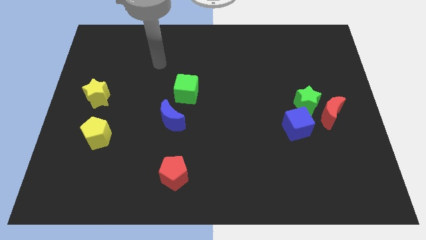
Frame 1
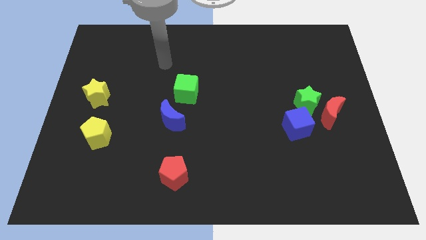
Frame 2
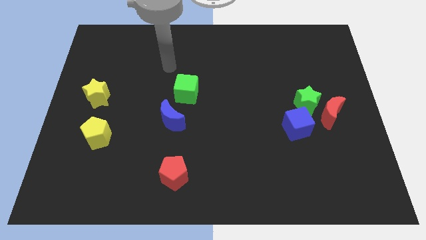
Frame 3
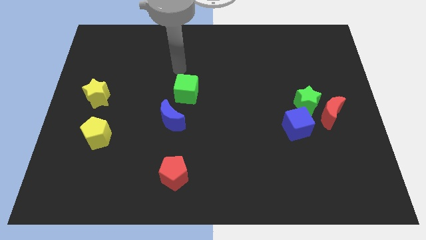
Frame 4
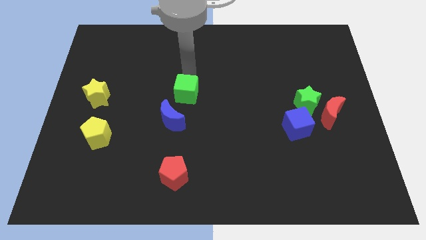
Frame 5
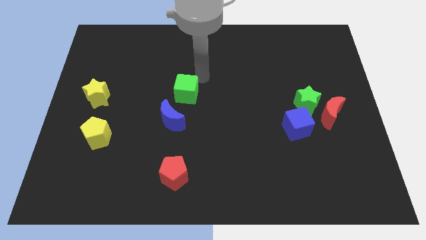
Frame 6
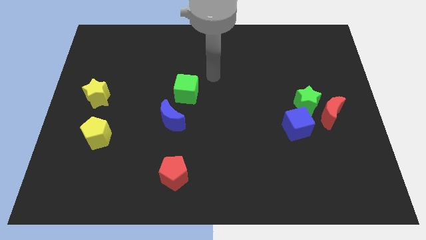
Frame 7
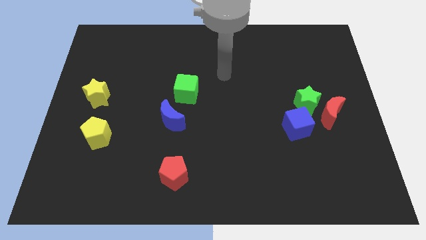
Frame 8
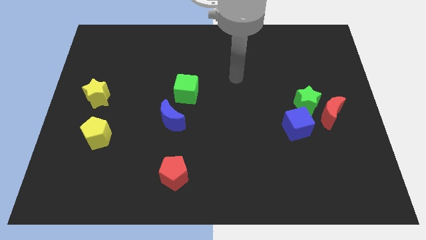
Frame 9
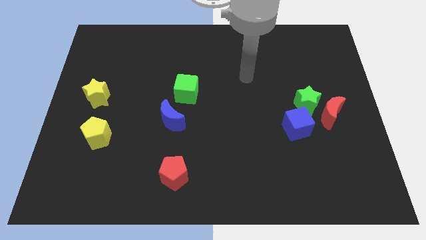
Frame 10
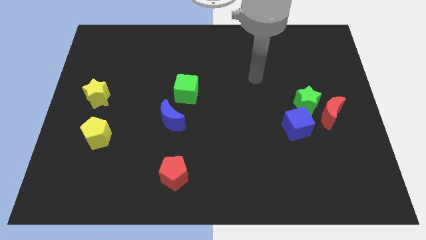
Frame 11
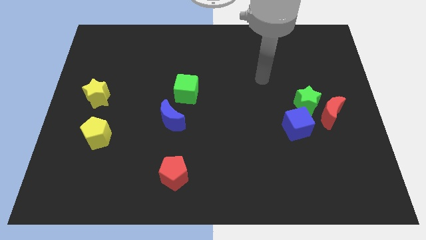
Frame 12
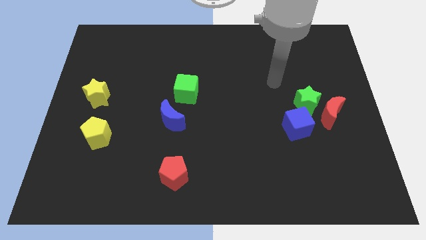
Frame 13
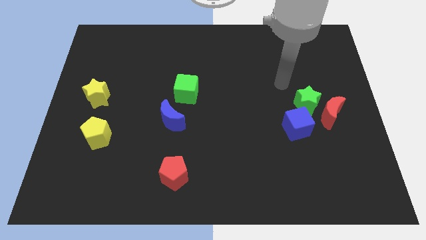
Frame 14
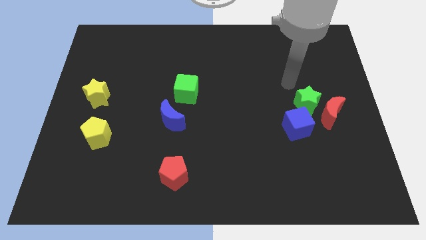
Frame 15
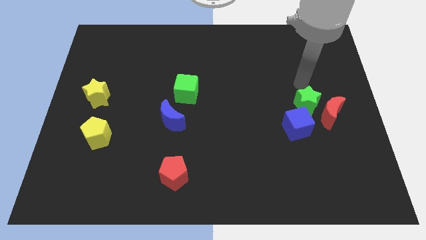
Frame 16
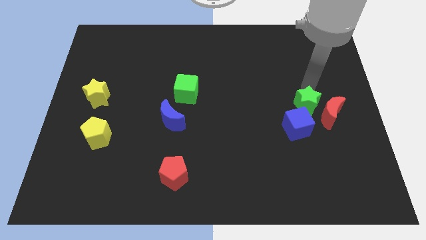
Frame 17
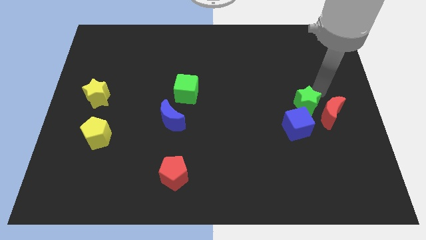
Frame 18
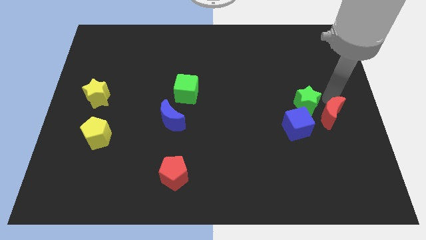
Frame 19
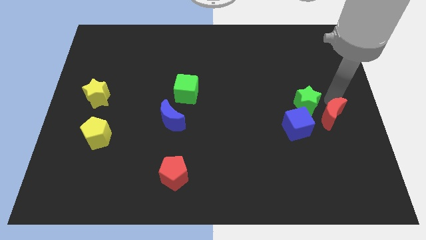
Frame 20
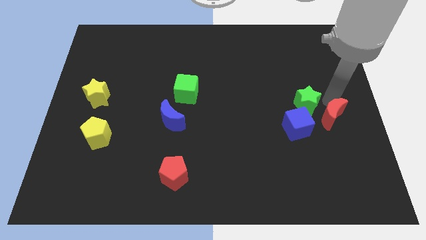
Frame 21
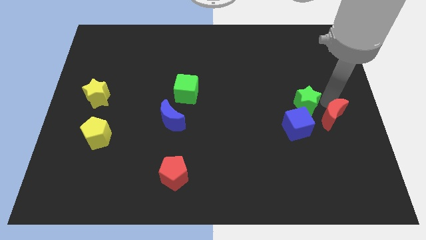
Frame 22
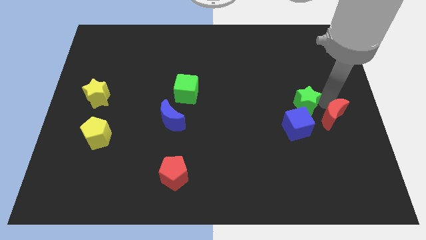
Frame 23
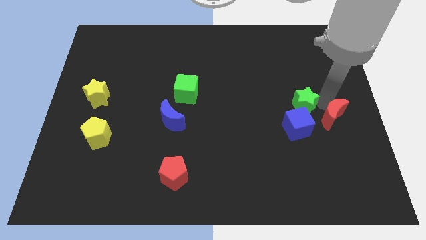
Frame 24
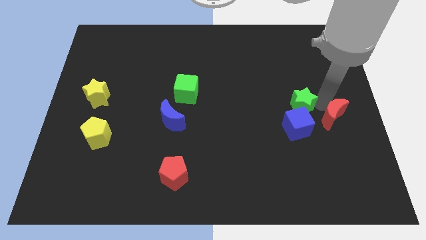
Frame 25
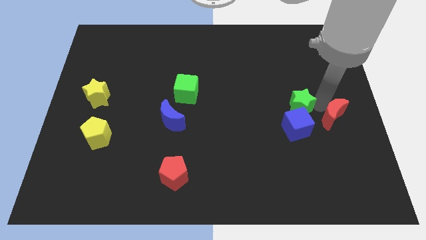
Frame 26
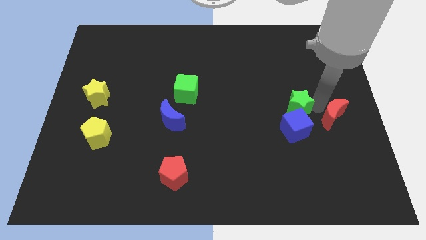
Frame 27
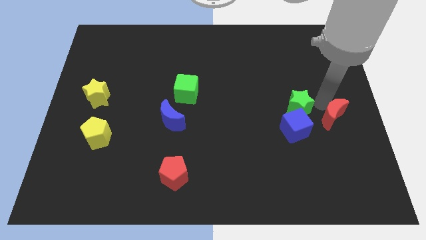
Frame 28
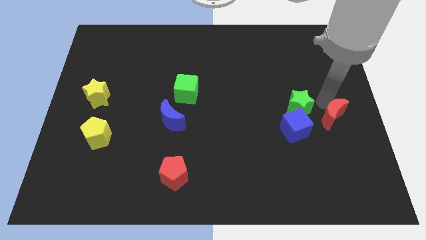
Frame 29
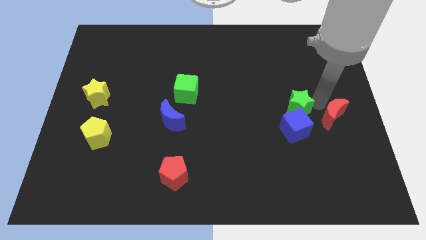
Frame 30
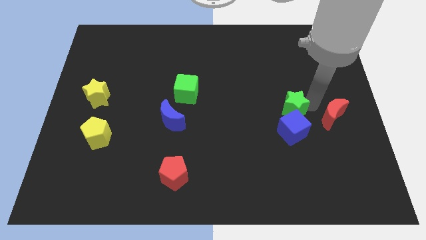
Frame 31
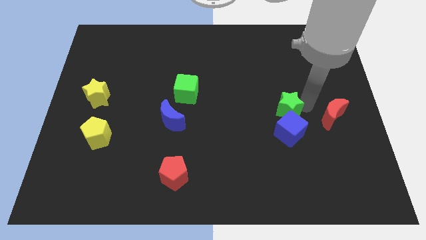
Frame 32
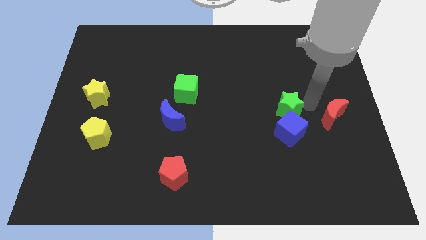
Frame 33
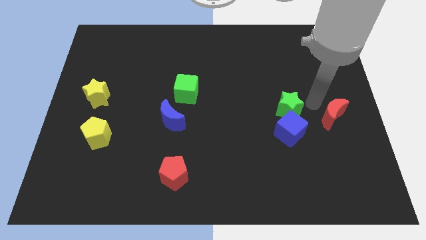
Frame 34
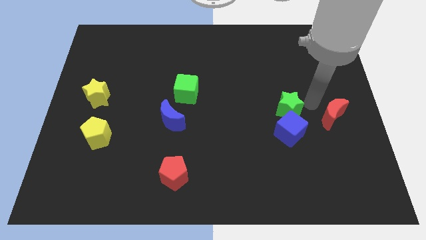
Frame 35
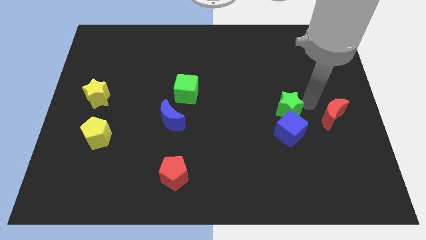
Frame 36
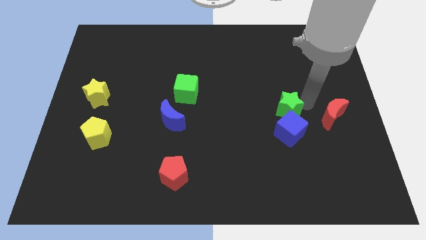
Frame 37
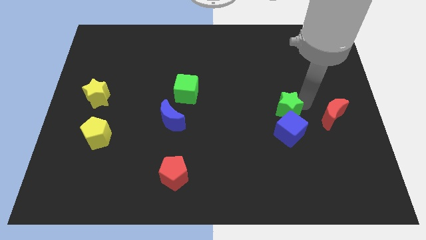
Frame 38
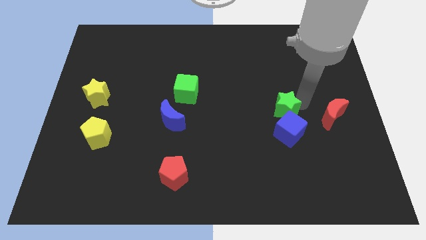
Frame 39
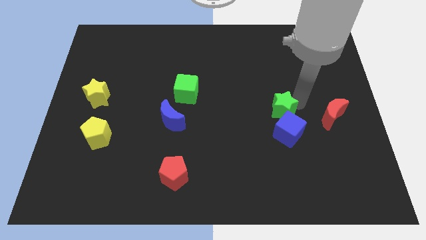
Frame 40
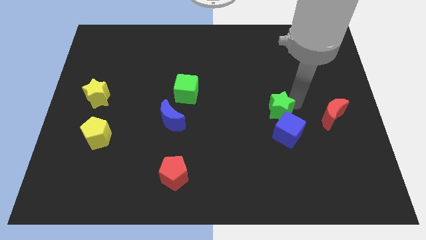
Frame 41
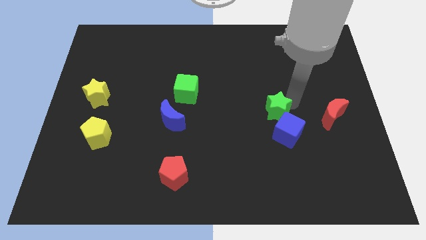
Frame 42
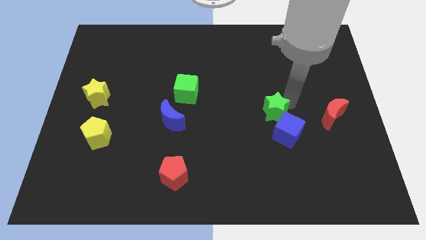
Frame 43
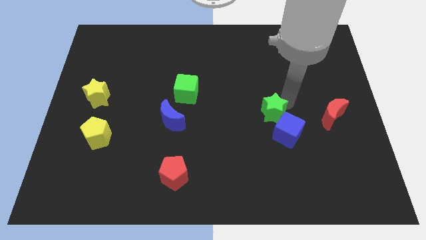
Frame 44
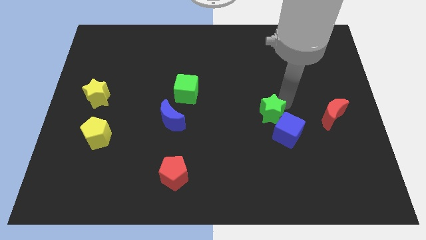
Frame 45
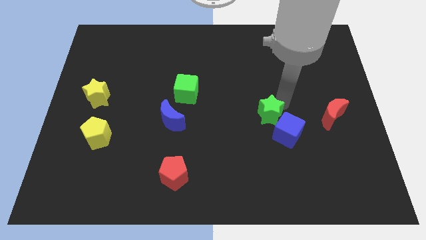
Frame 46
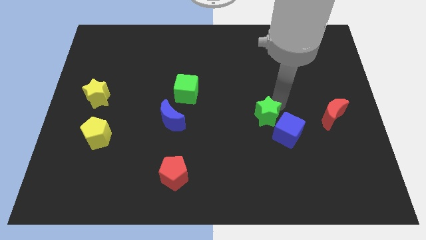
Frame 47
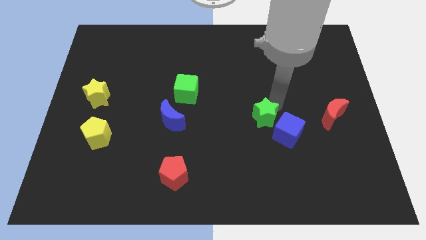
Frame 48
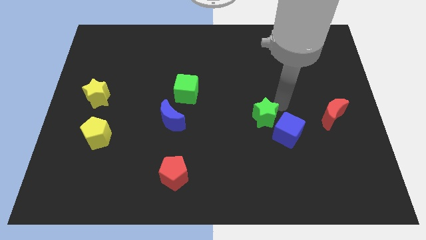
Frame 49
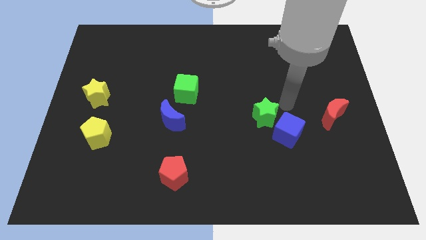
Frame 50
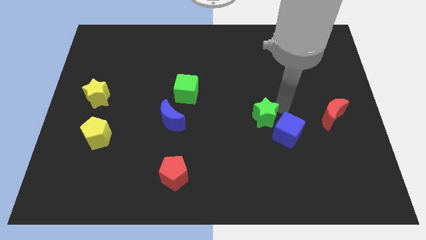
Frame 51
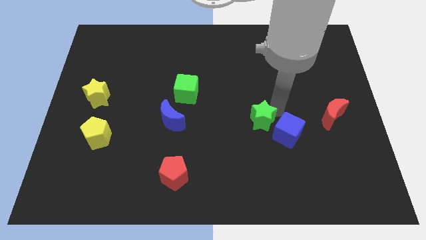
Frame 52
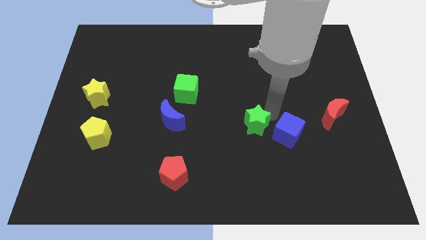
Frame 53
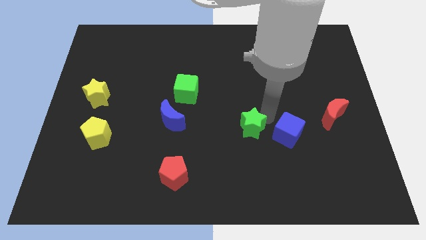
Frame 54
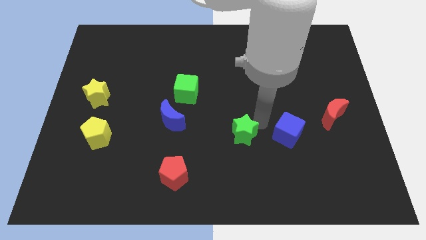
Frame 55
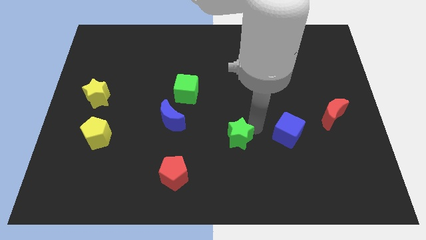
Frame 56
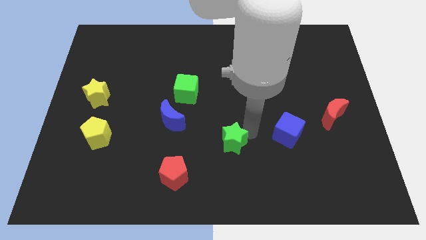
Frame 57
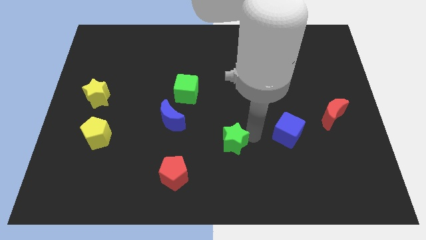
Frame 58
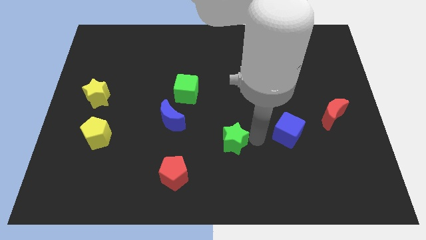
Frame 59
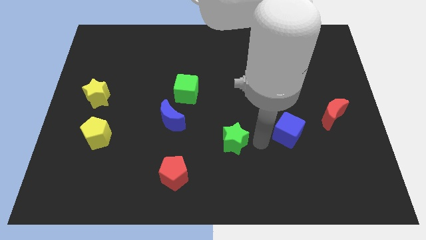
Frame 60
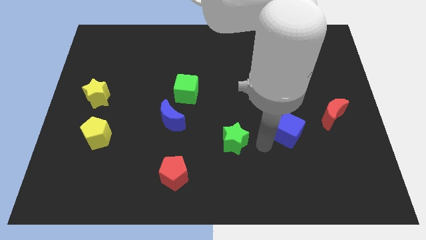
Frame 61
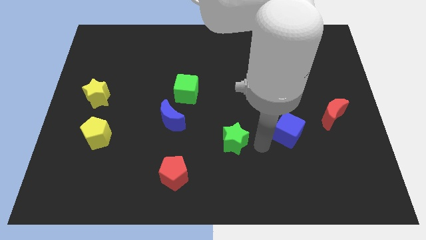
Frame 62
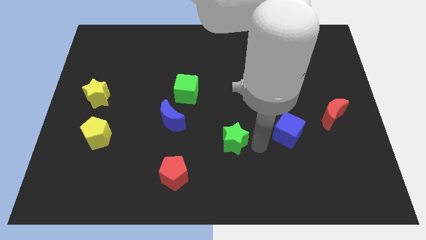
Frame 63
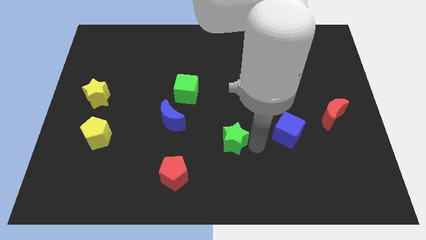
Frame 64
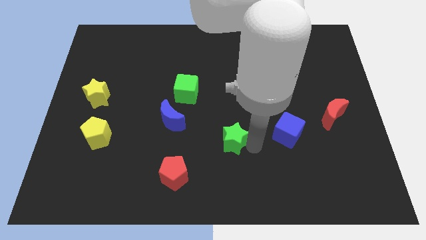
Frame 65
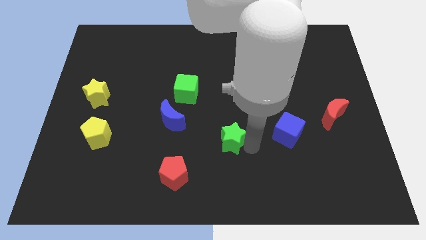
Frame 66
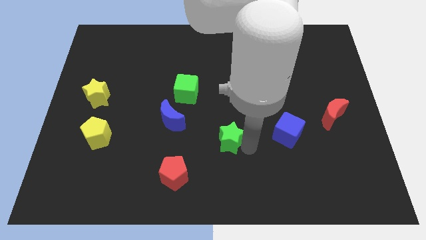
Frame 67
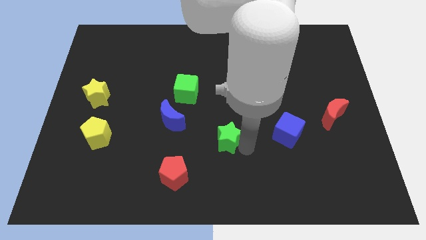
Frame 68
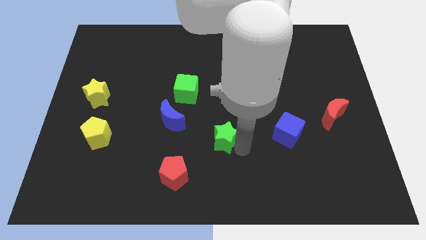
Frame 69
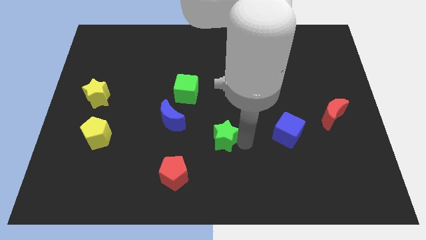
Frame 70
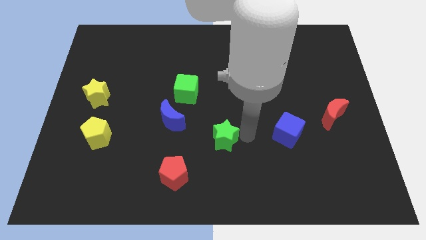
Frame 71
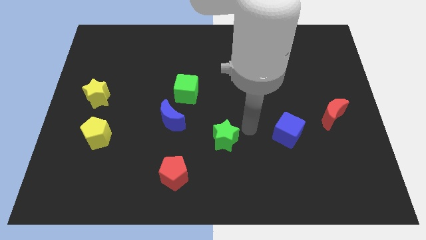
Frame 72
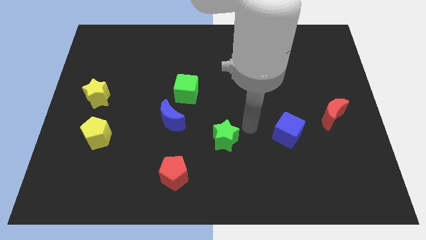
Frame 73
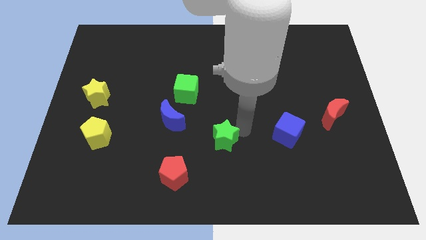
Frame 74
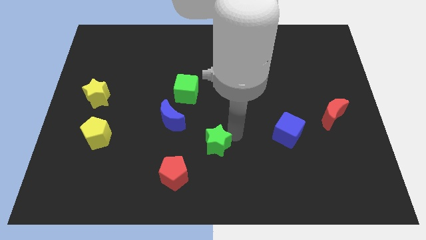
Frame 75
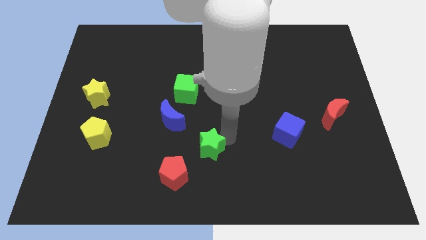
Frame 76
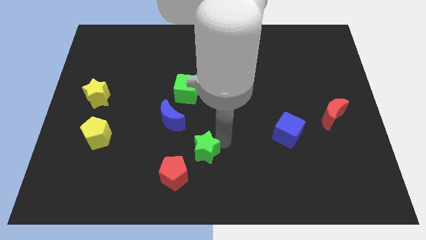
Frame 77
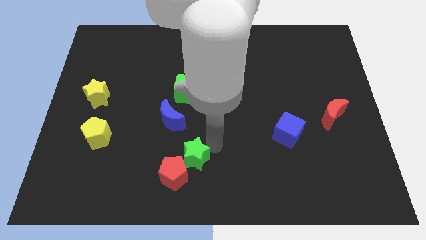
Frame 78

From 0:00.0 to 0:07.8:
put the green star next to the red pentagon
